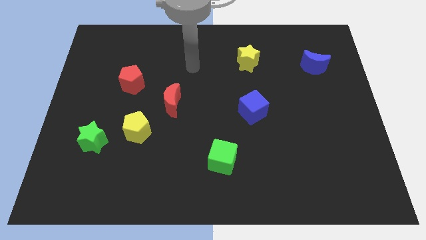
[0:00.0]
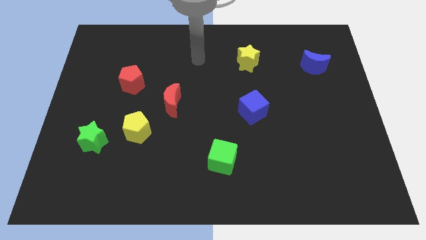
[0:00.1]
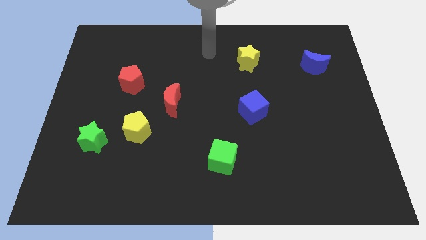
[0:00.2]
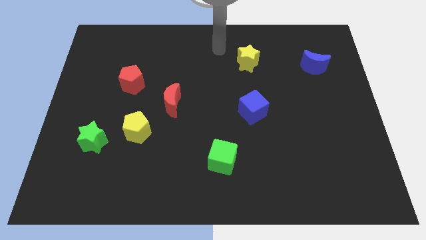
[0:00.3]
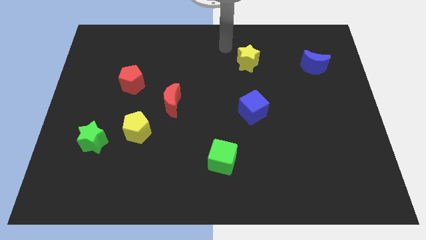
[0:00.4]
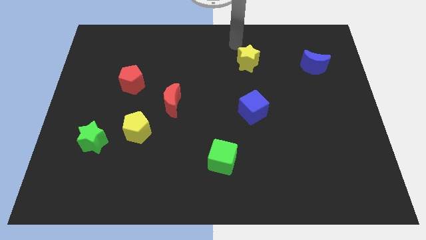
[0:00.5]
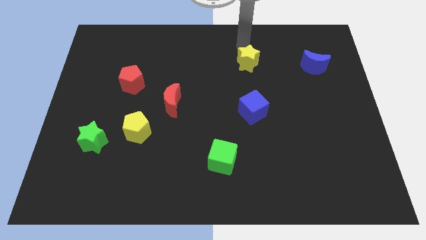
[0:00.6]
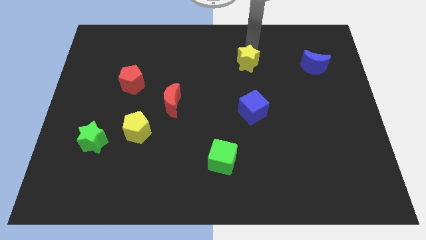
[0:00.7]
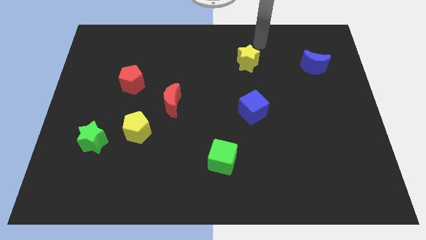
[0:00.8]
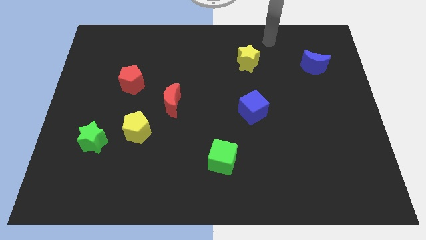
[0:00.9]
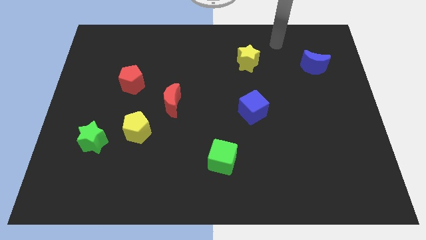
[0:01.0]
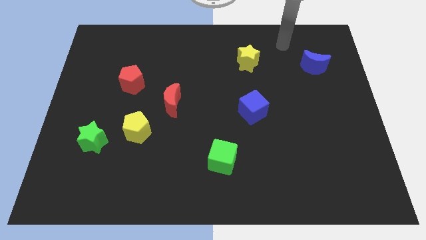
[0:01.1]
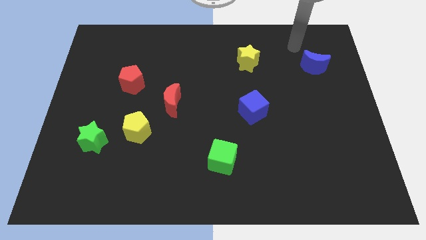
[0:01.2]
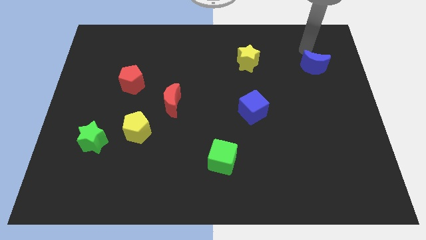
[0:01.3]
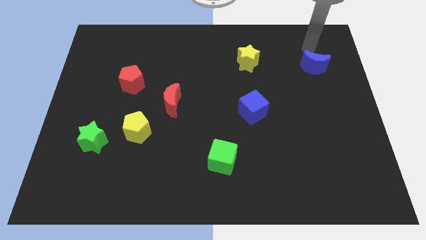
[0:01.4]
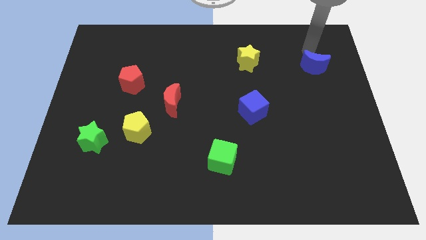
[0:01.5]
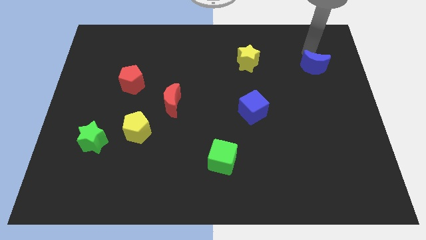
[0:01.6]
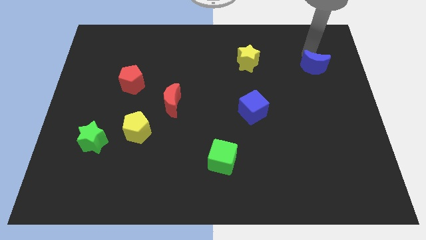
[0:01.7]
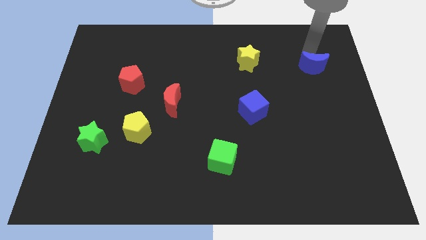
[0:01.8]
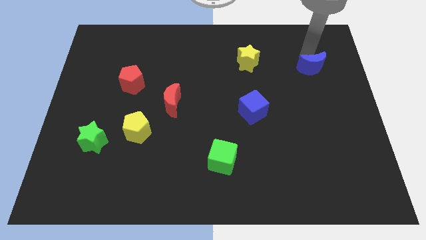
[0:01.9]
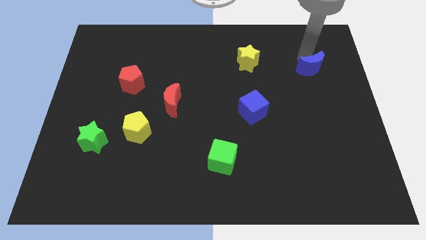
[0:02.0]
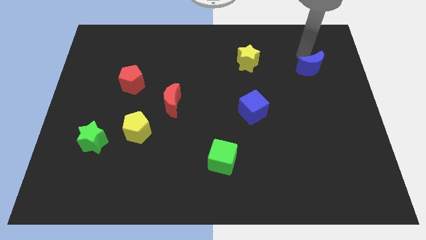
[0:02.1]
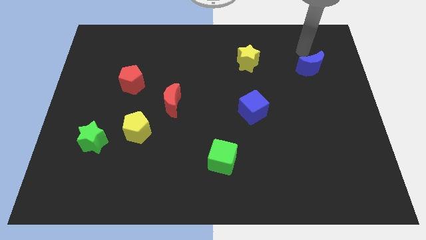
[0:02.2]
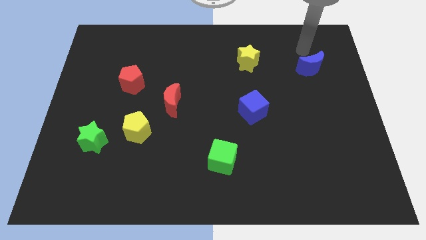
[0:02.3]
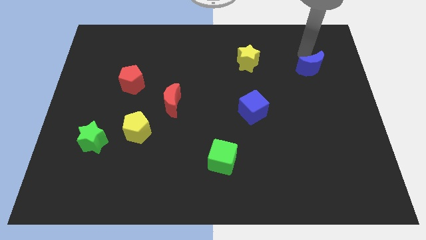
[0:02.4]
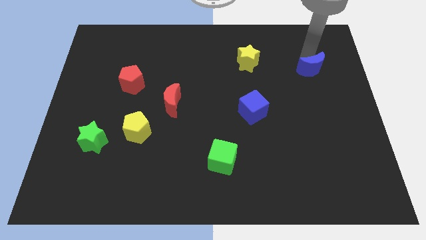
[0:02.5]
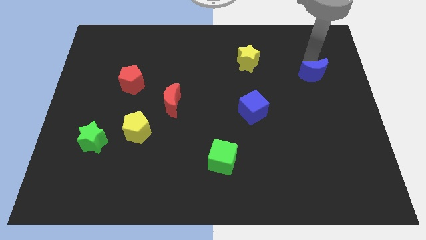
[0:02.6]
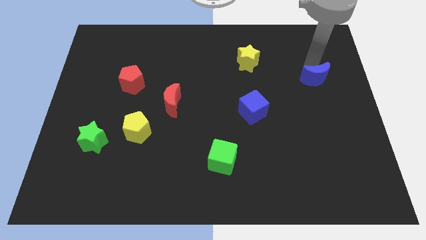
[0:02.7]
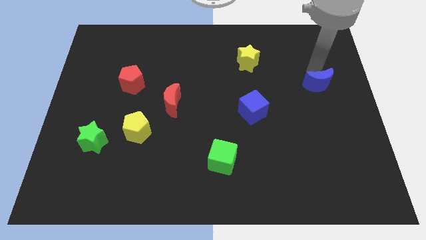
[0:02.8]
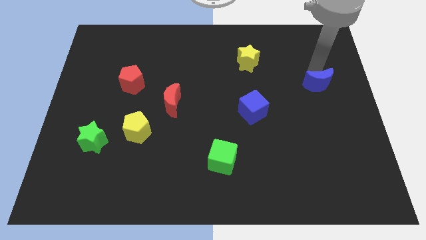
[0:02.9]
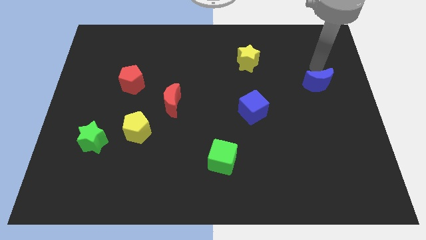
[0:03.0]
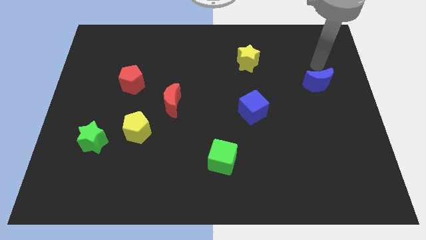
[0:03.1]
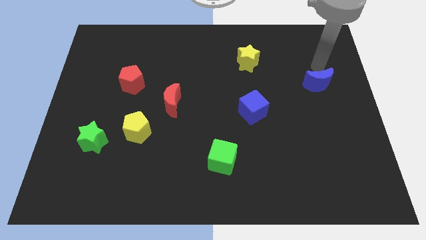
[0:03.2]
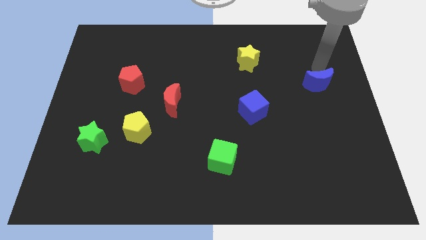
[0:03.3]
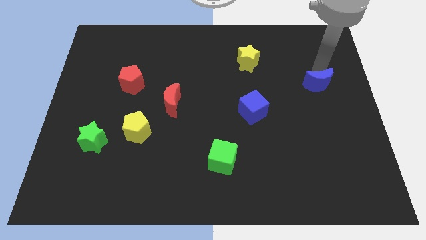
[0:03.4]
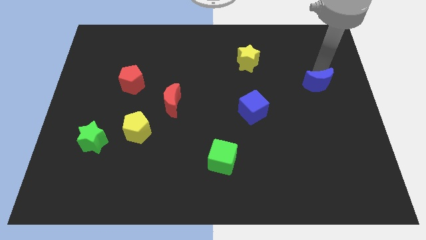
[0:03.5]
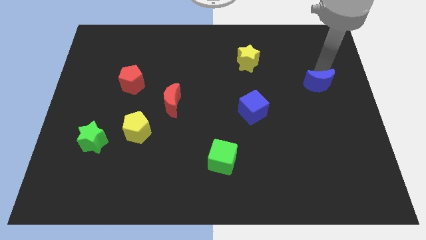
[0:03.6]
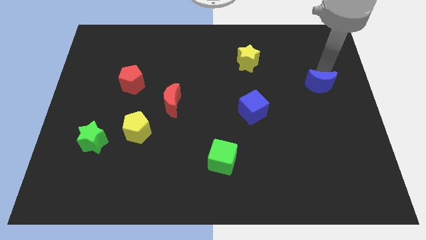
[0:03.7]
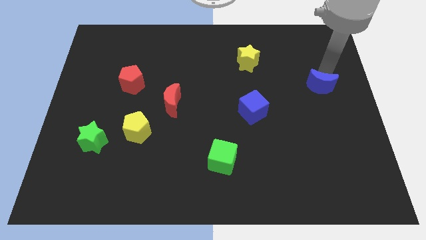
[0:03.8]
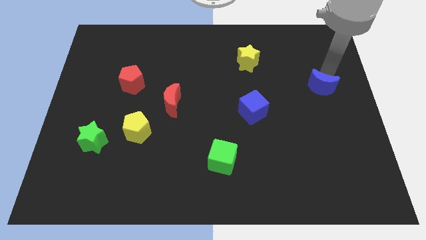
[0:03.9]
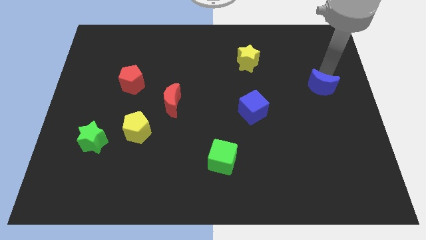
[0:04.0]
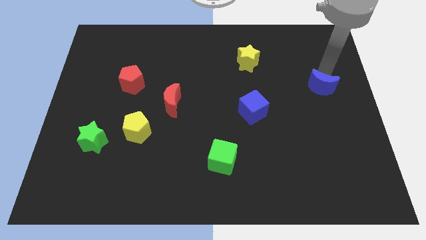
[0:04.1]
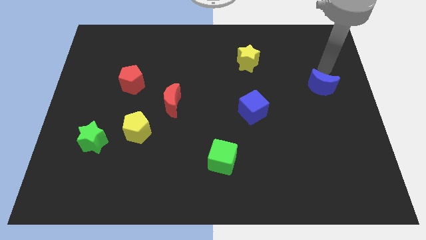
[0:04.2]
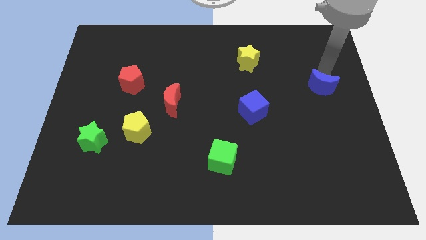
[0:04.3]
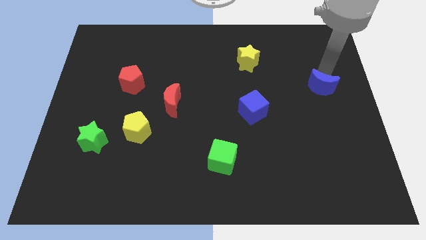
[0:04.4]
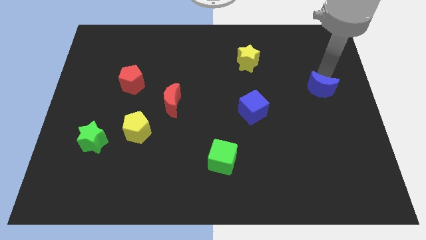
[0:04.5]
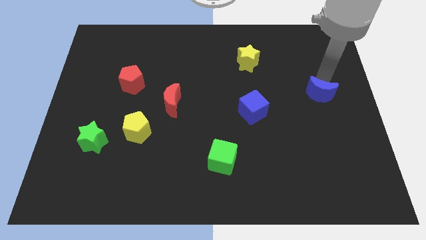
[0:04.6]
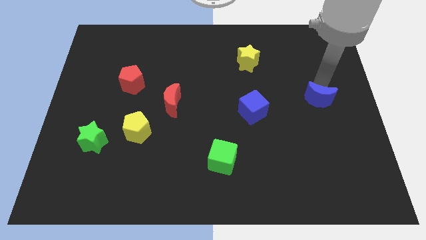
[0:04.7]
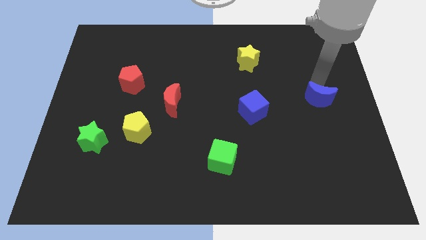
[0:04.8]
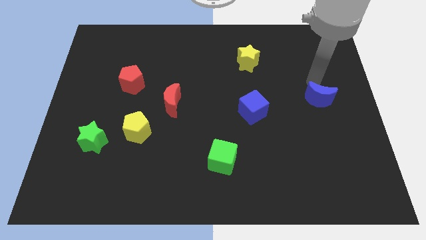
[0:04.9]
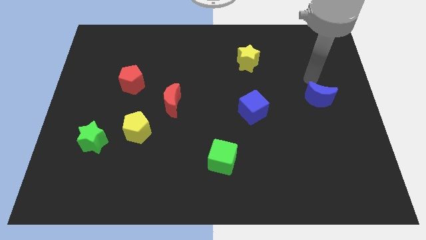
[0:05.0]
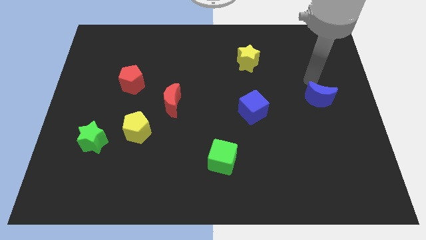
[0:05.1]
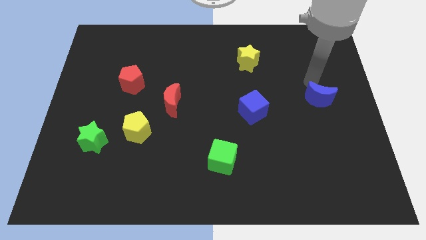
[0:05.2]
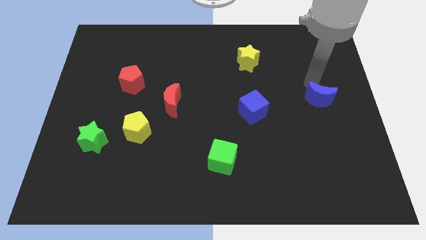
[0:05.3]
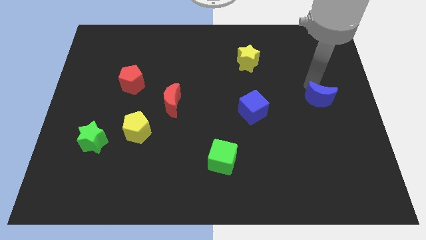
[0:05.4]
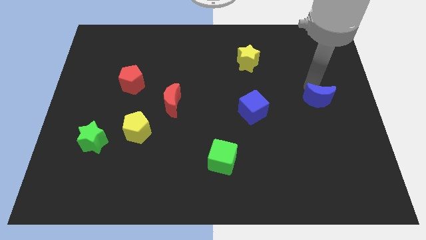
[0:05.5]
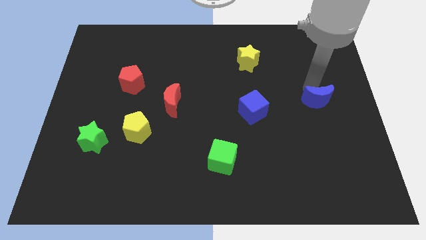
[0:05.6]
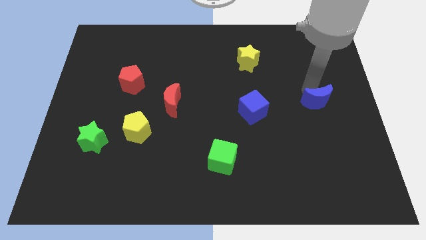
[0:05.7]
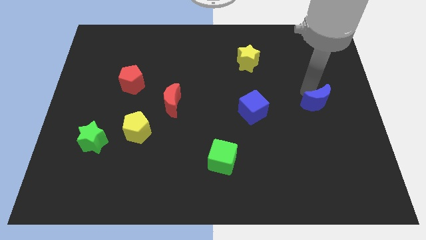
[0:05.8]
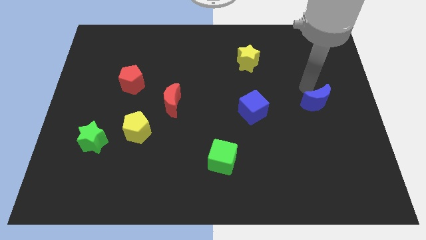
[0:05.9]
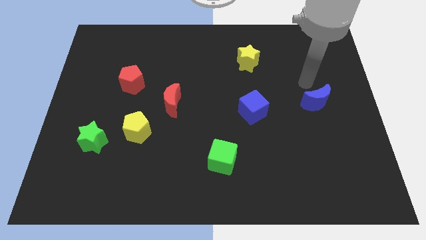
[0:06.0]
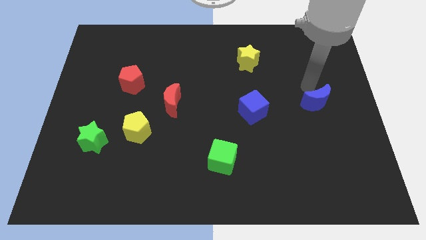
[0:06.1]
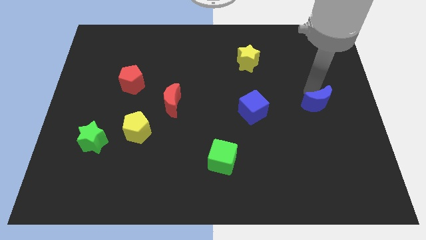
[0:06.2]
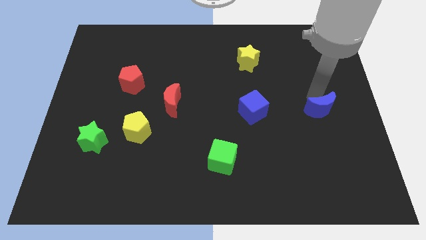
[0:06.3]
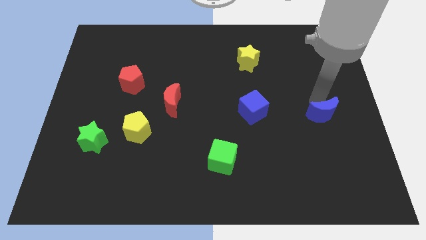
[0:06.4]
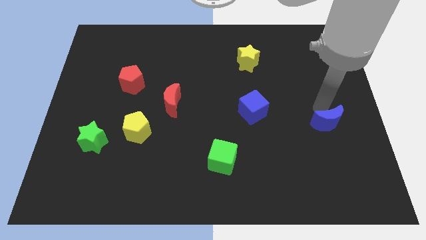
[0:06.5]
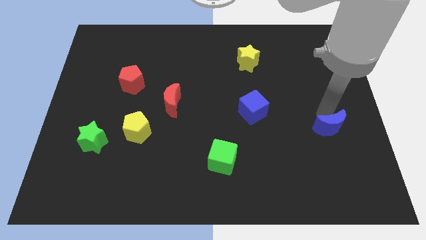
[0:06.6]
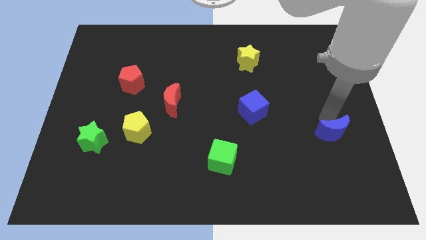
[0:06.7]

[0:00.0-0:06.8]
push the blue moon downwards

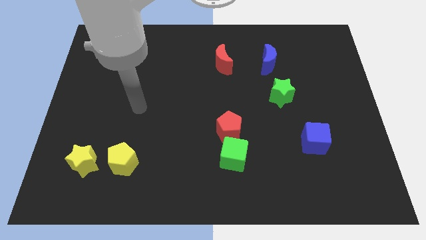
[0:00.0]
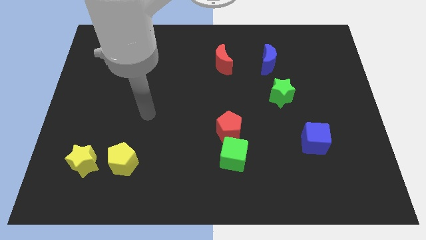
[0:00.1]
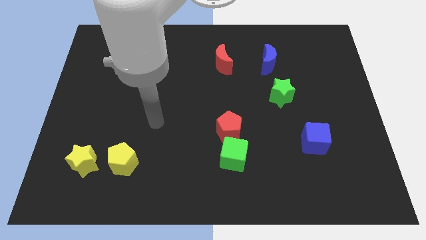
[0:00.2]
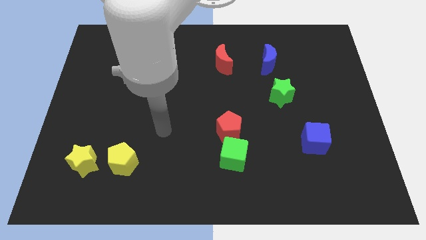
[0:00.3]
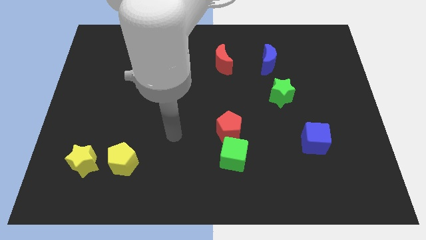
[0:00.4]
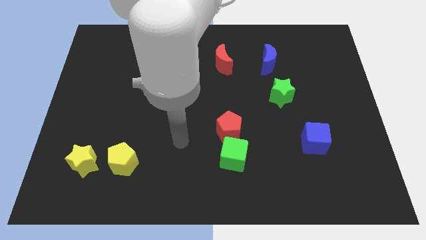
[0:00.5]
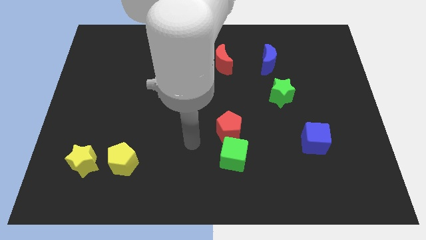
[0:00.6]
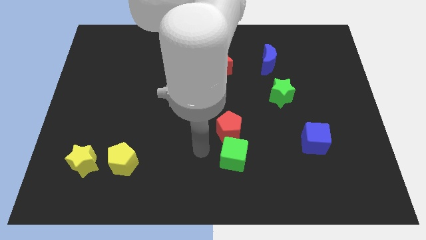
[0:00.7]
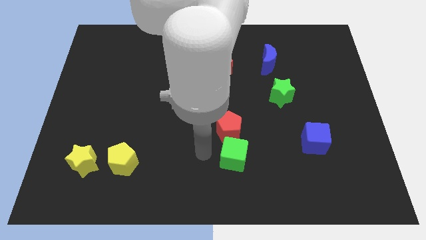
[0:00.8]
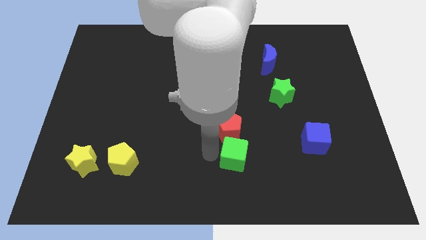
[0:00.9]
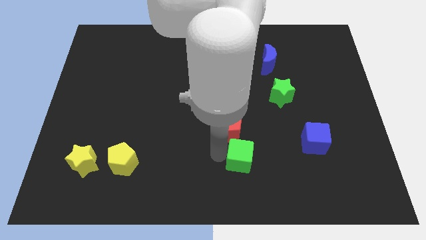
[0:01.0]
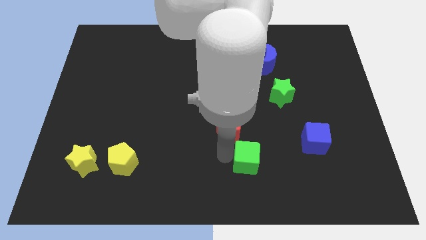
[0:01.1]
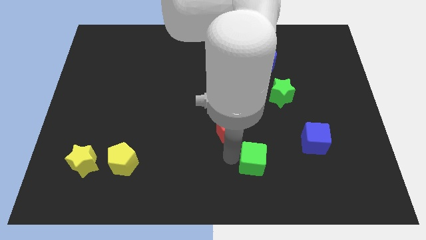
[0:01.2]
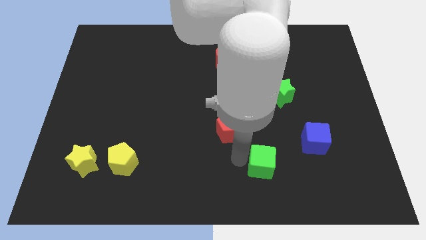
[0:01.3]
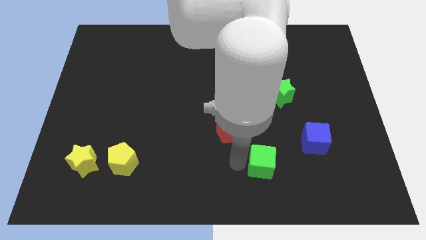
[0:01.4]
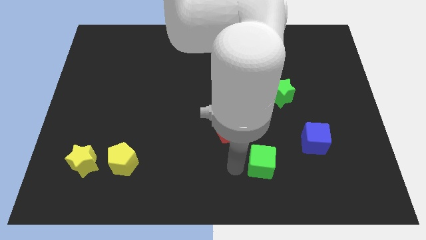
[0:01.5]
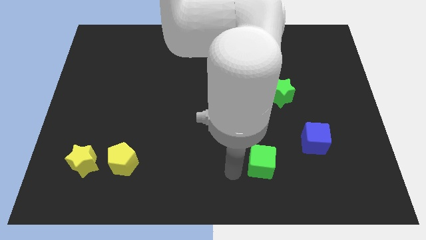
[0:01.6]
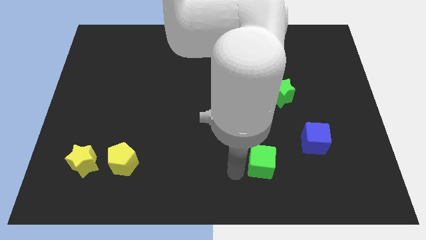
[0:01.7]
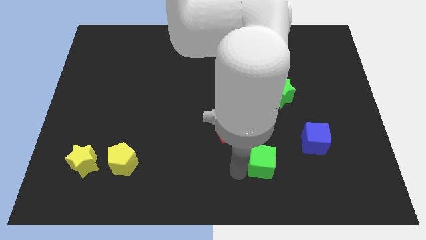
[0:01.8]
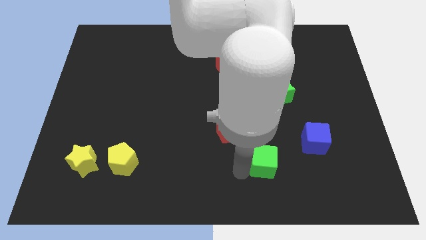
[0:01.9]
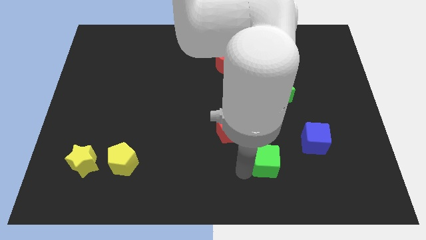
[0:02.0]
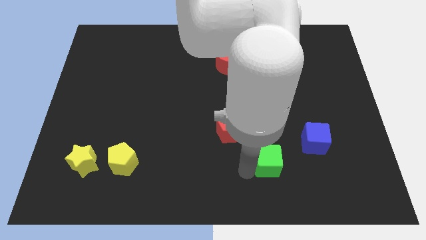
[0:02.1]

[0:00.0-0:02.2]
push the green cube to the right a bit
